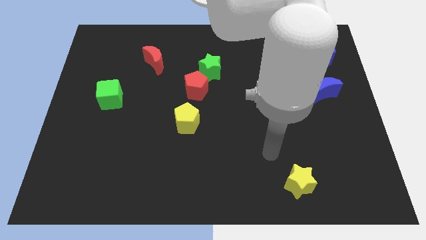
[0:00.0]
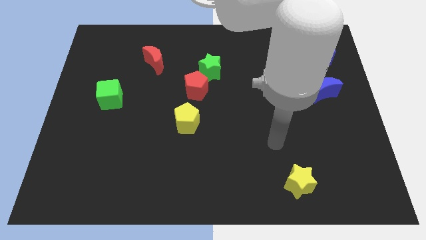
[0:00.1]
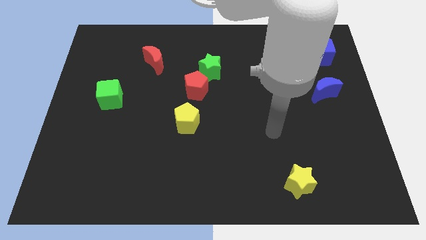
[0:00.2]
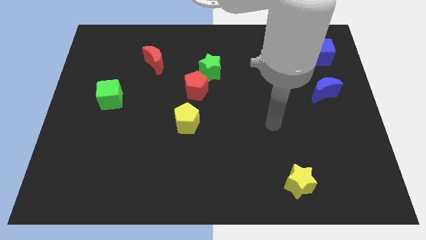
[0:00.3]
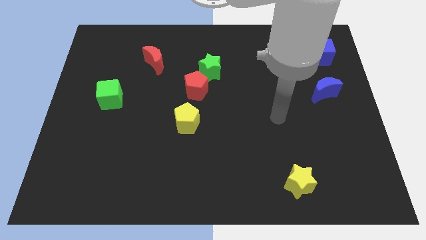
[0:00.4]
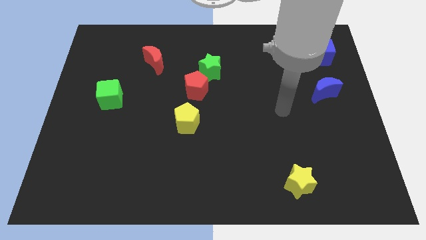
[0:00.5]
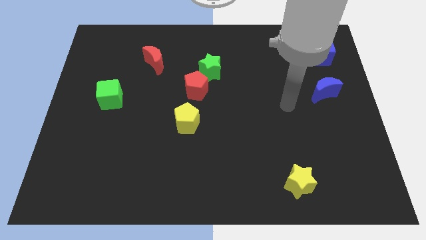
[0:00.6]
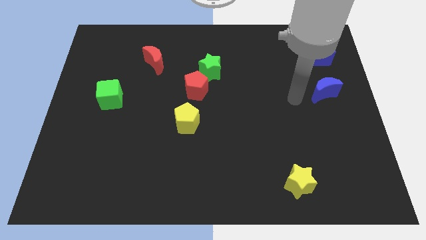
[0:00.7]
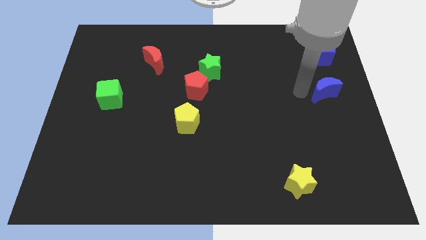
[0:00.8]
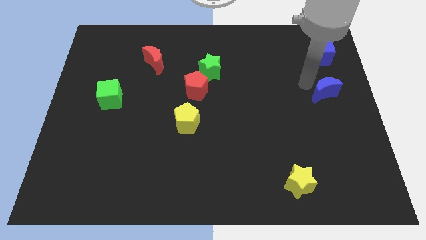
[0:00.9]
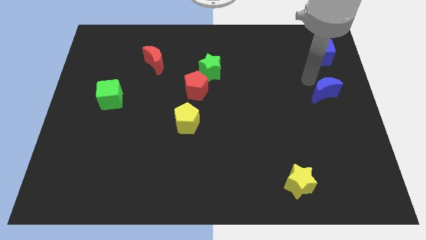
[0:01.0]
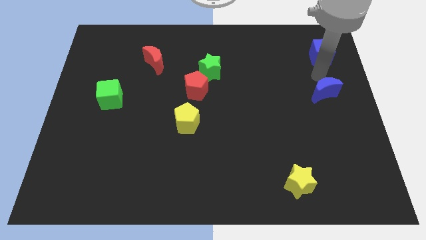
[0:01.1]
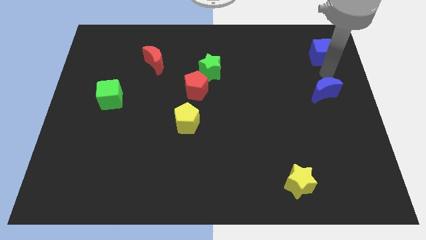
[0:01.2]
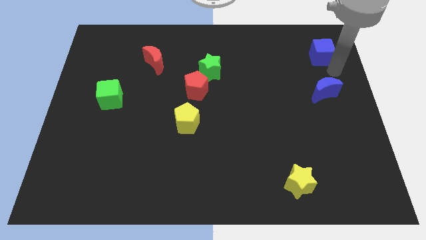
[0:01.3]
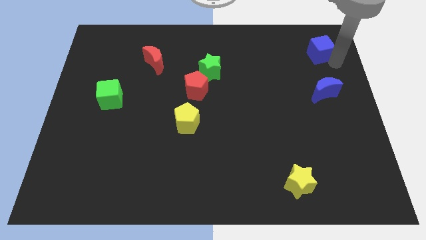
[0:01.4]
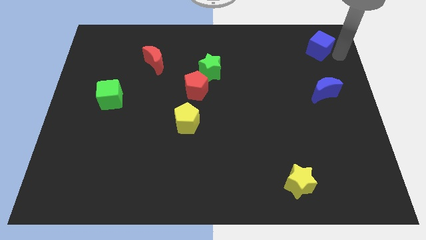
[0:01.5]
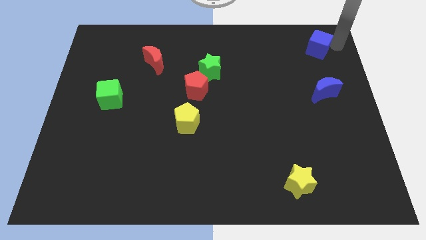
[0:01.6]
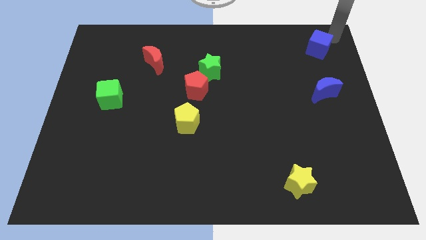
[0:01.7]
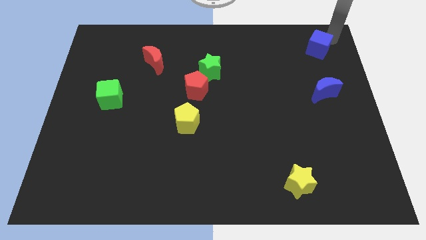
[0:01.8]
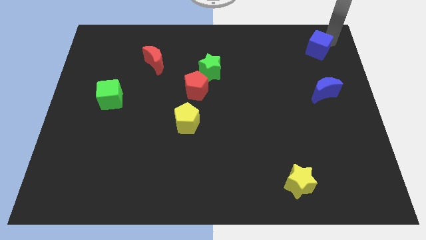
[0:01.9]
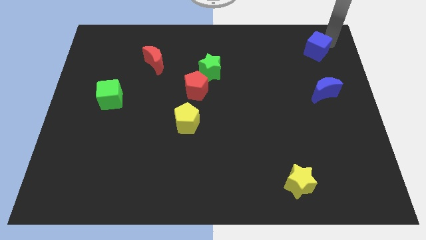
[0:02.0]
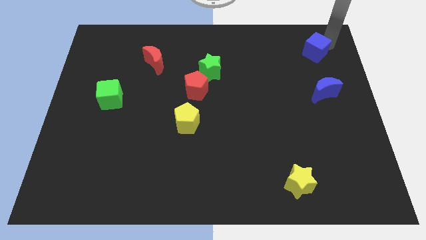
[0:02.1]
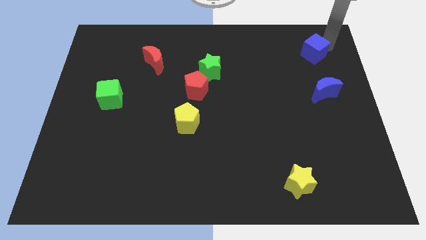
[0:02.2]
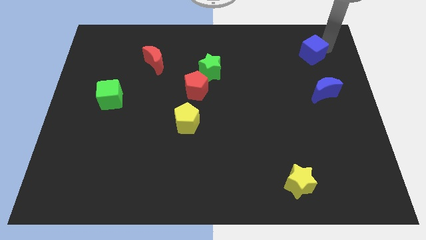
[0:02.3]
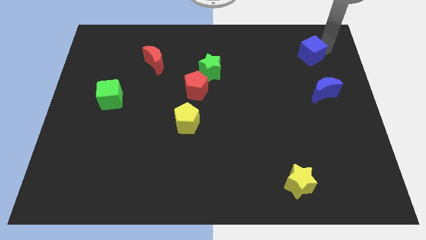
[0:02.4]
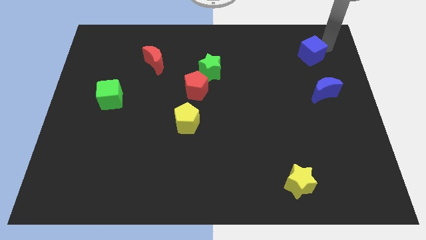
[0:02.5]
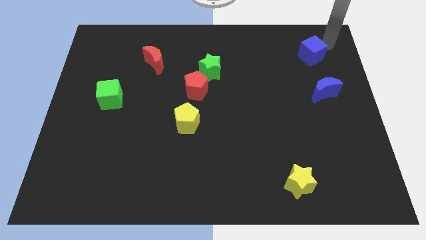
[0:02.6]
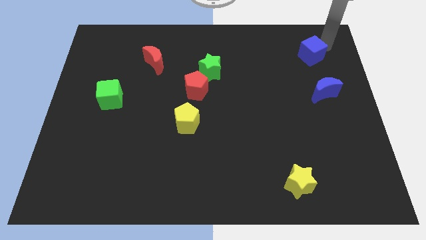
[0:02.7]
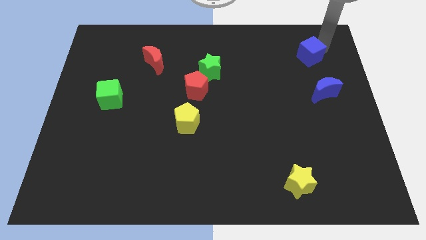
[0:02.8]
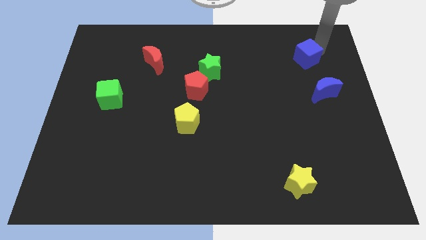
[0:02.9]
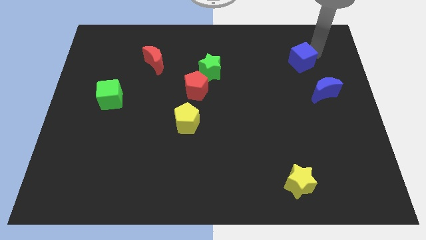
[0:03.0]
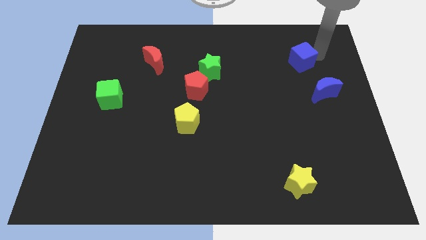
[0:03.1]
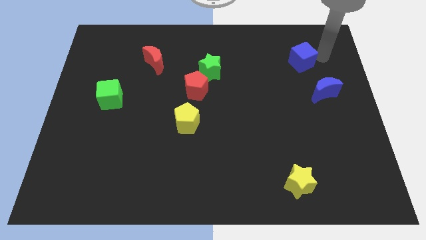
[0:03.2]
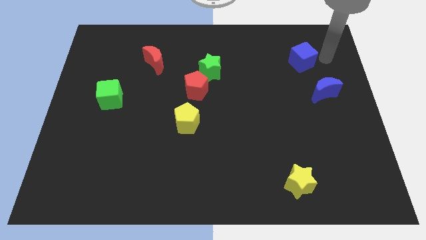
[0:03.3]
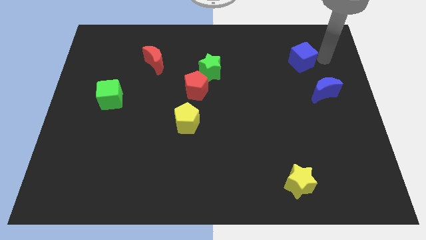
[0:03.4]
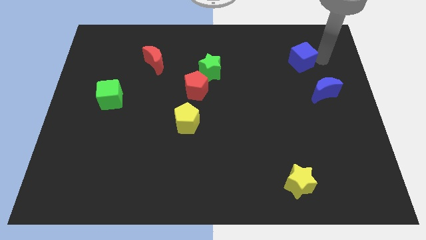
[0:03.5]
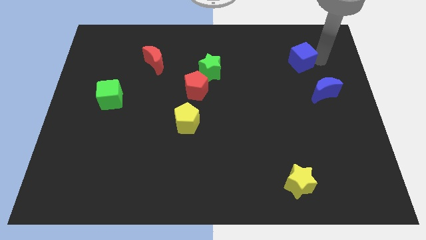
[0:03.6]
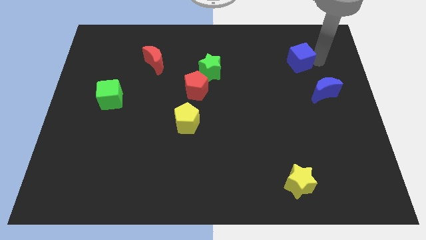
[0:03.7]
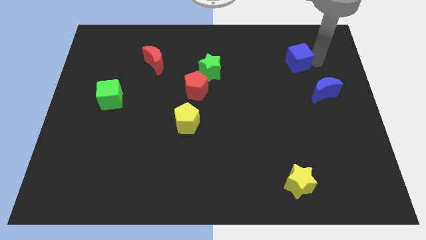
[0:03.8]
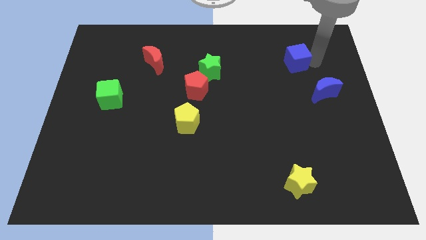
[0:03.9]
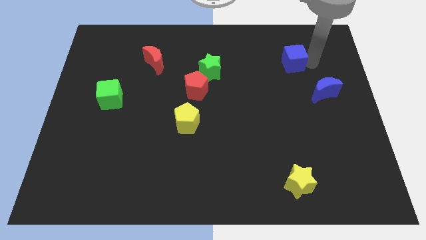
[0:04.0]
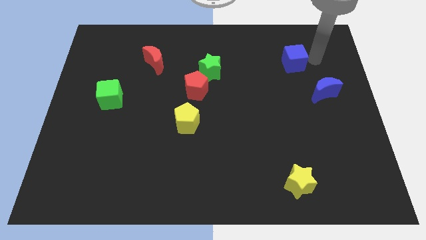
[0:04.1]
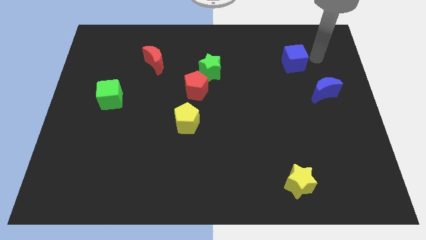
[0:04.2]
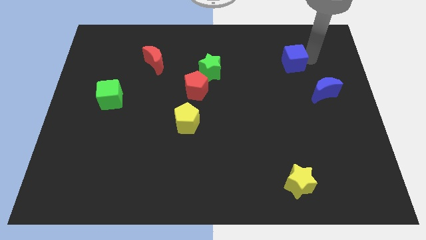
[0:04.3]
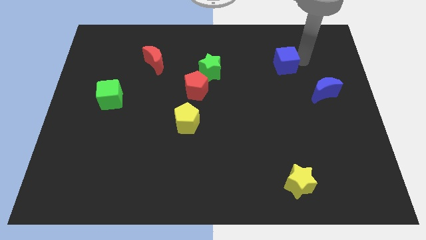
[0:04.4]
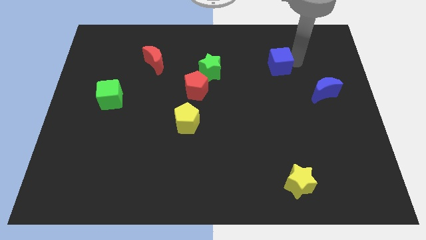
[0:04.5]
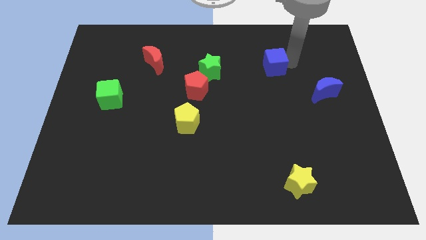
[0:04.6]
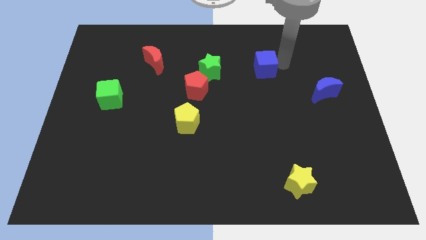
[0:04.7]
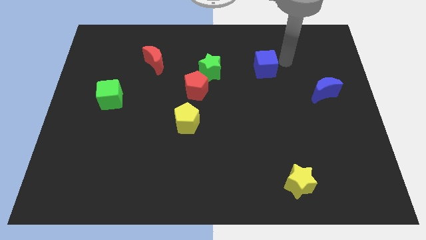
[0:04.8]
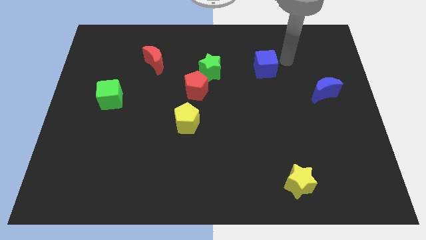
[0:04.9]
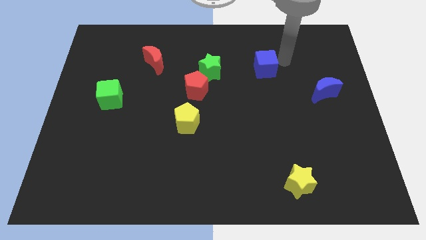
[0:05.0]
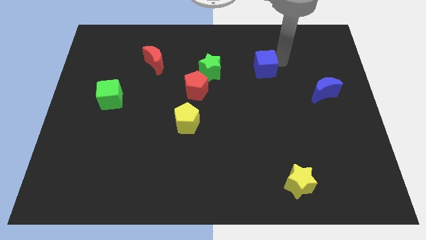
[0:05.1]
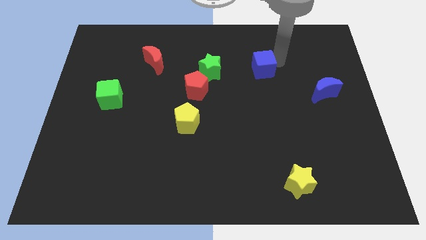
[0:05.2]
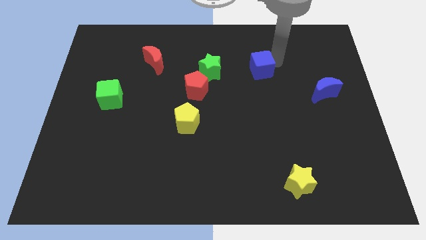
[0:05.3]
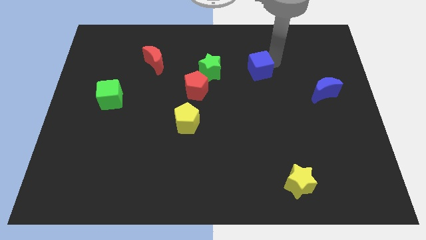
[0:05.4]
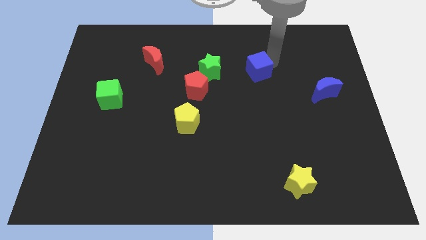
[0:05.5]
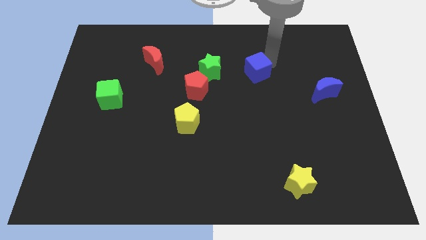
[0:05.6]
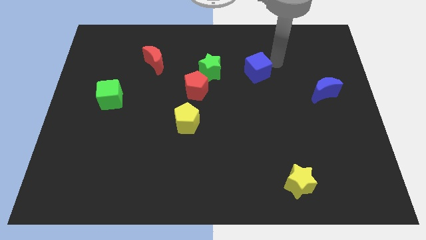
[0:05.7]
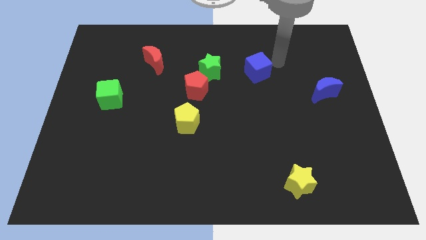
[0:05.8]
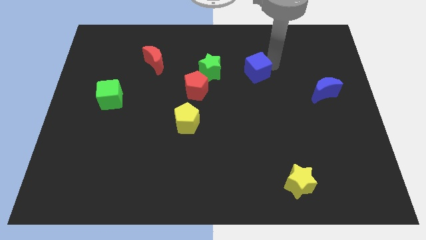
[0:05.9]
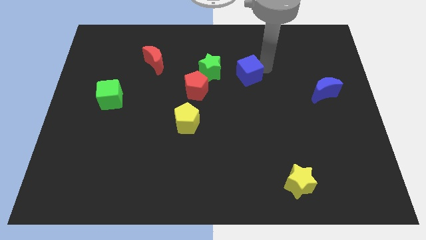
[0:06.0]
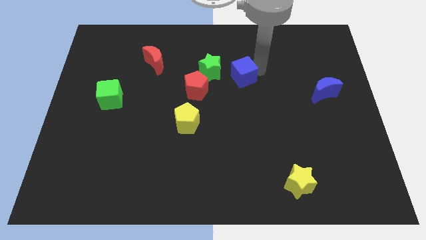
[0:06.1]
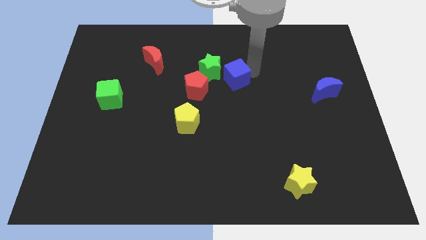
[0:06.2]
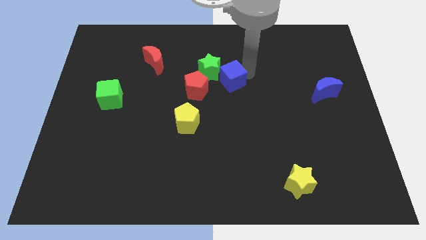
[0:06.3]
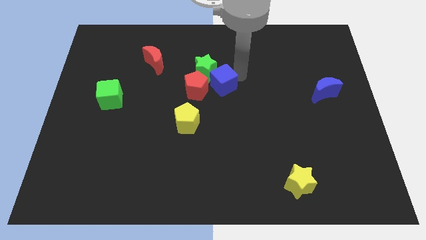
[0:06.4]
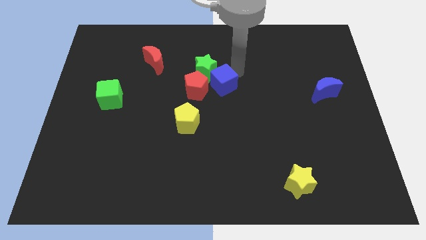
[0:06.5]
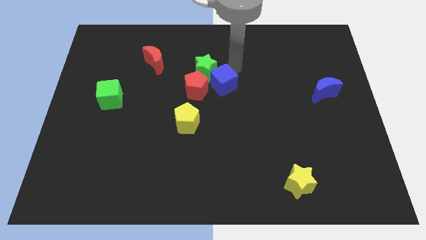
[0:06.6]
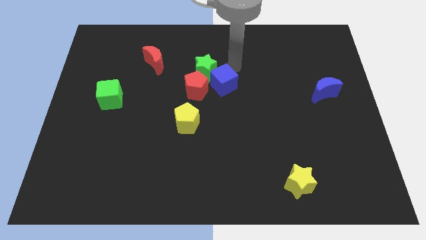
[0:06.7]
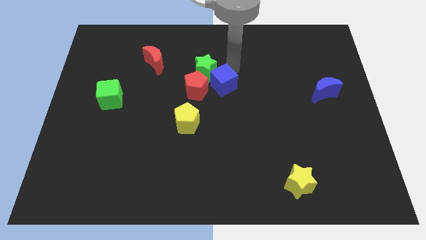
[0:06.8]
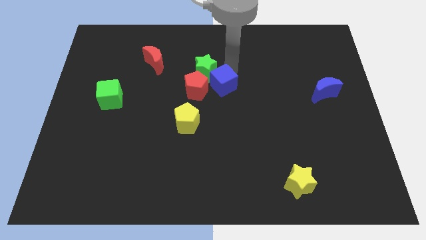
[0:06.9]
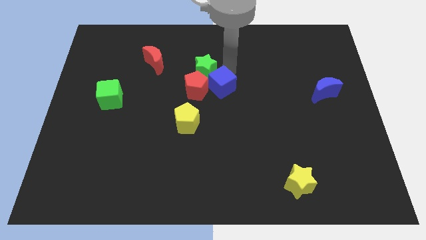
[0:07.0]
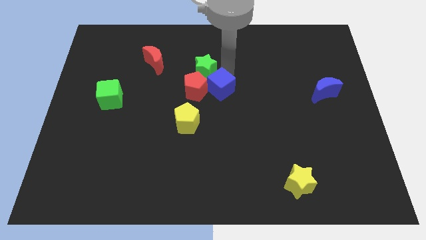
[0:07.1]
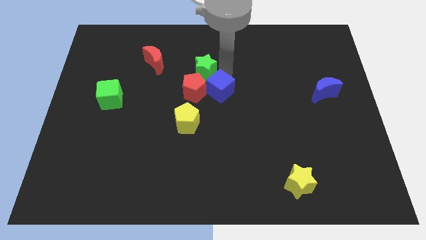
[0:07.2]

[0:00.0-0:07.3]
push the blue cube diagonally up and to the right of the yellow pentagon
